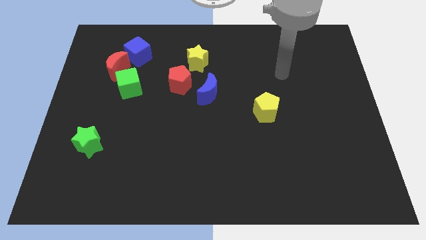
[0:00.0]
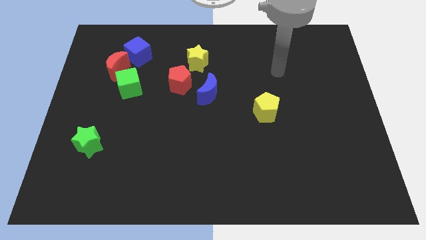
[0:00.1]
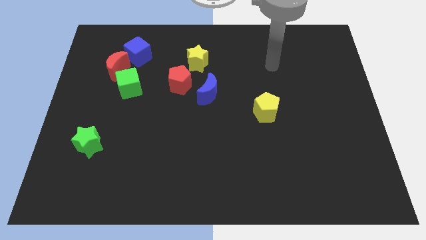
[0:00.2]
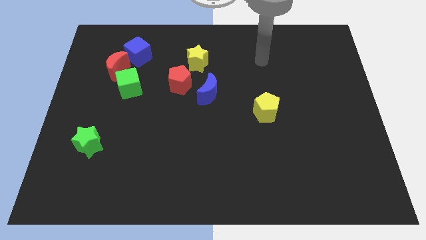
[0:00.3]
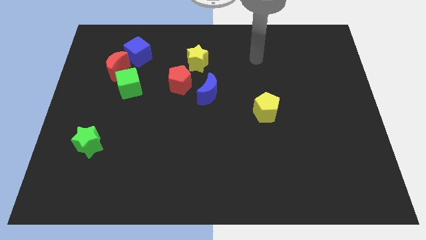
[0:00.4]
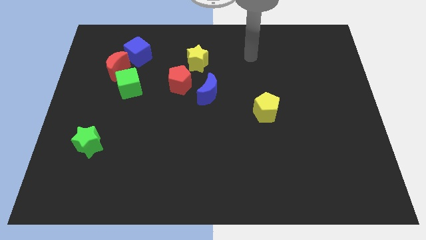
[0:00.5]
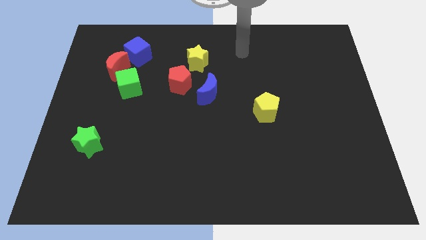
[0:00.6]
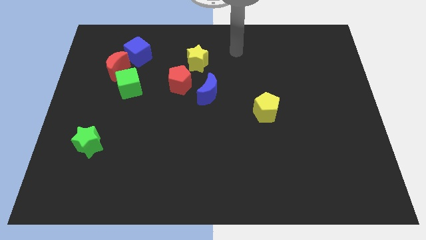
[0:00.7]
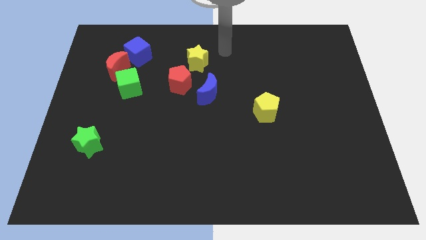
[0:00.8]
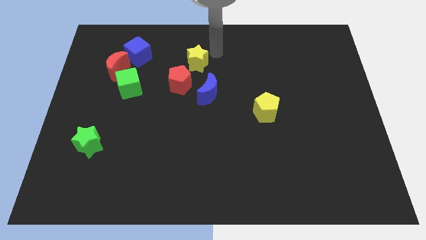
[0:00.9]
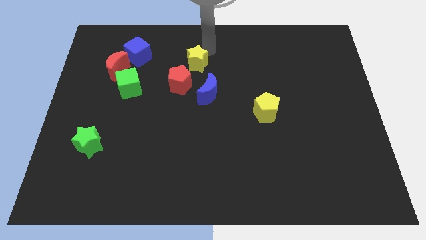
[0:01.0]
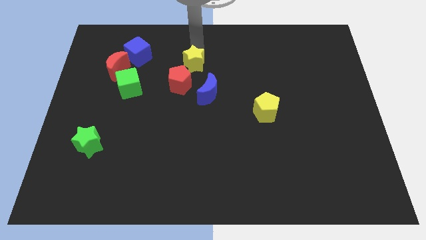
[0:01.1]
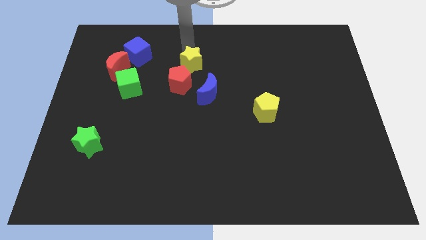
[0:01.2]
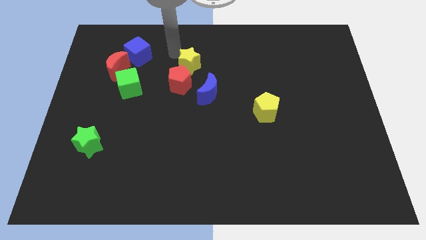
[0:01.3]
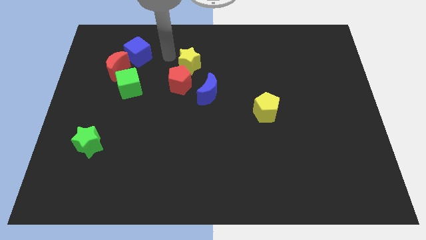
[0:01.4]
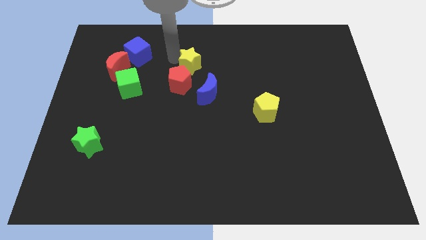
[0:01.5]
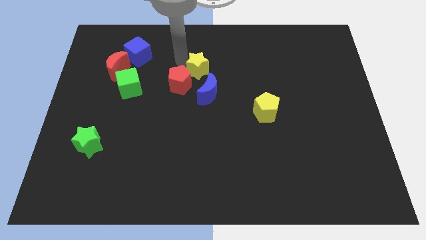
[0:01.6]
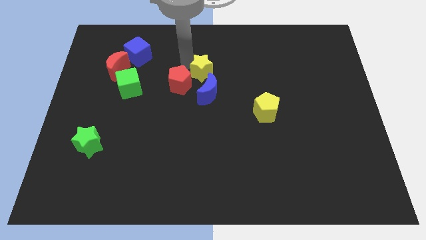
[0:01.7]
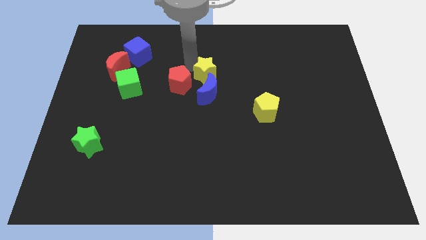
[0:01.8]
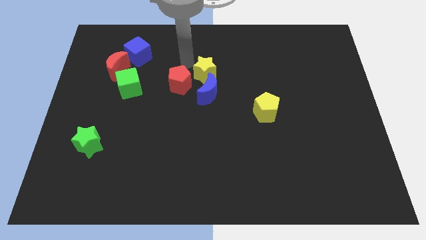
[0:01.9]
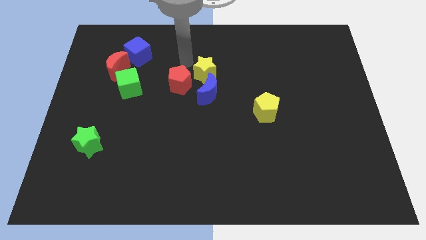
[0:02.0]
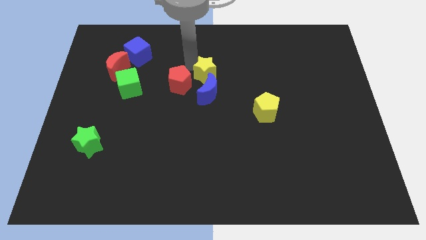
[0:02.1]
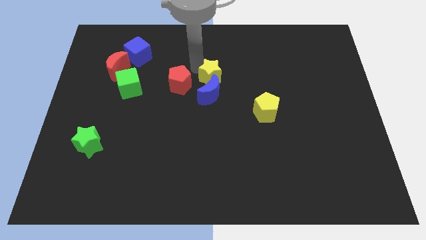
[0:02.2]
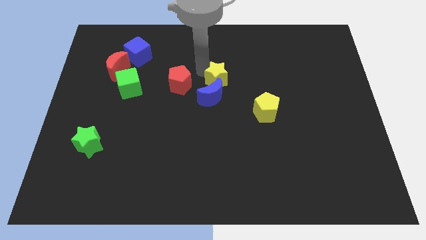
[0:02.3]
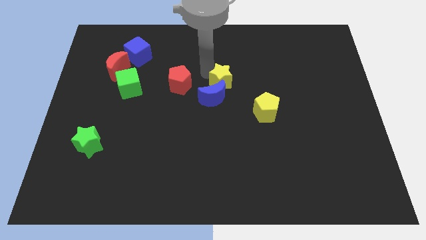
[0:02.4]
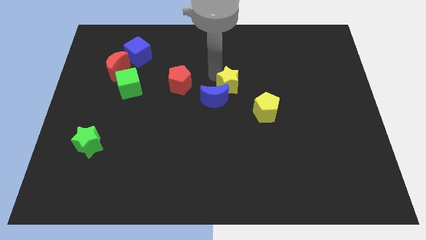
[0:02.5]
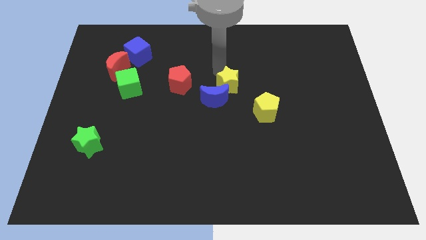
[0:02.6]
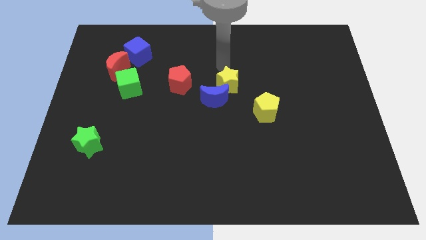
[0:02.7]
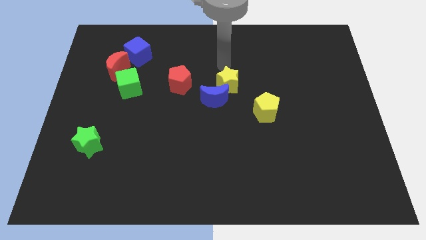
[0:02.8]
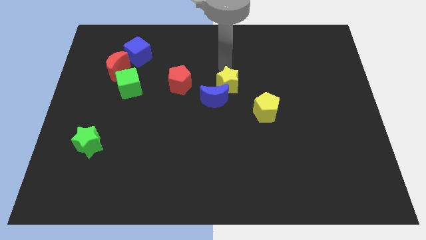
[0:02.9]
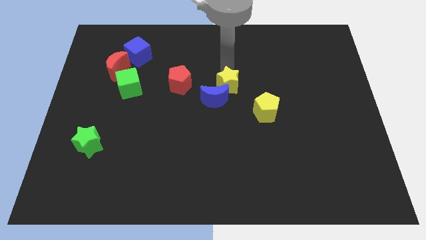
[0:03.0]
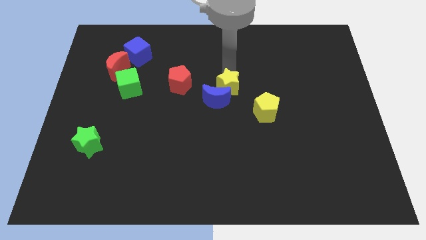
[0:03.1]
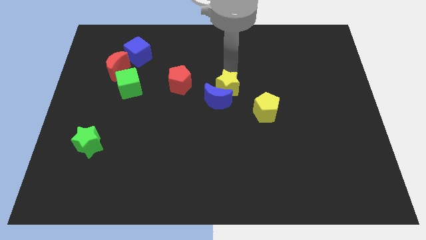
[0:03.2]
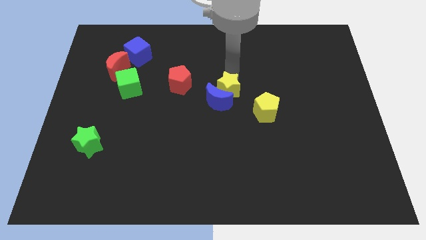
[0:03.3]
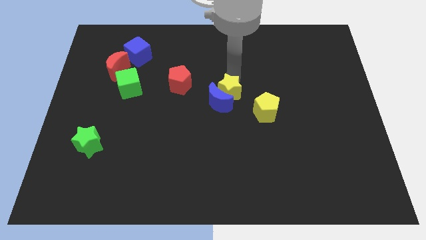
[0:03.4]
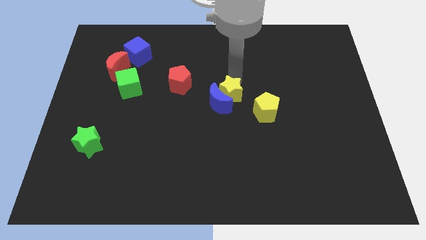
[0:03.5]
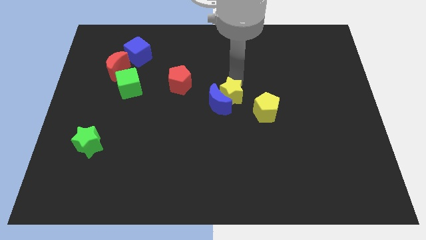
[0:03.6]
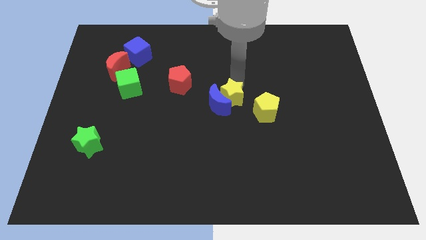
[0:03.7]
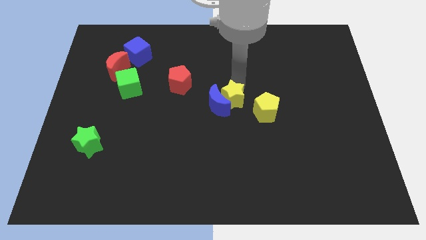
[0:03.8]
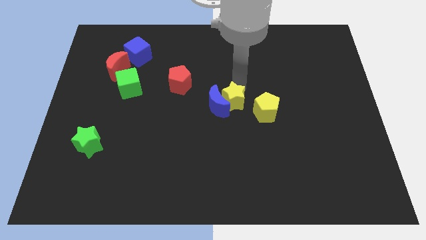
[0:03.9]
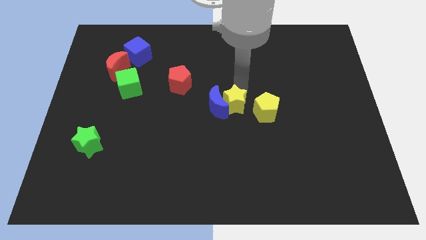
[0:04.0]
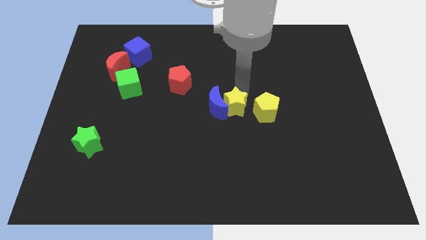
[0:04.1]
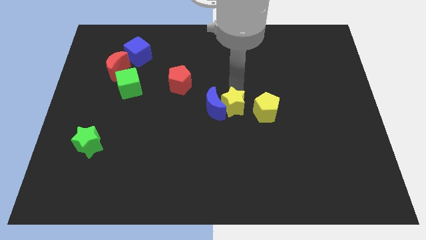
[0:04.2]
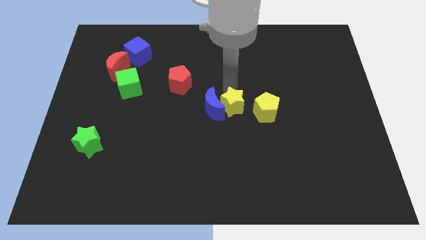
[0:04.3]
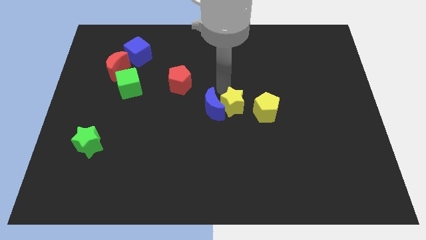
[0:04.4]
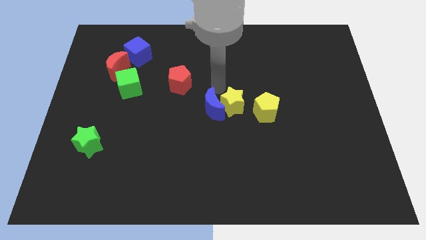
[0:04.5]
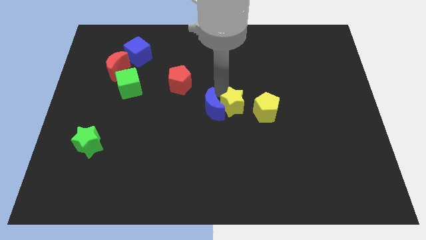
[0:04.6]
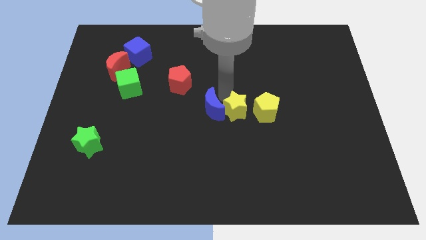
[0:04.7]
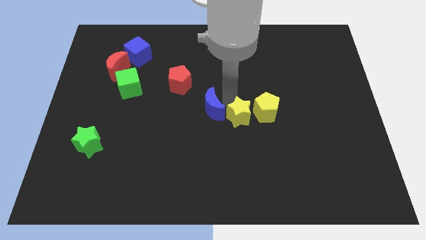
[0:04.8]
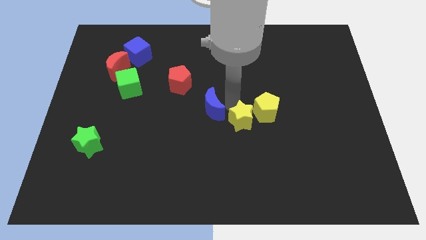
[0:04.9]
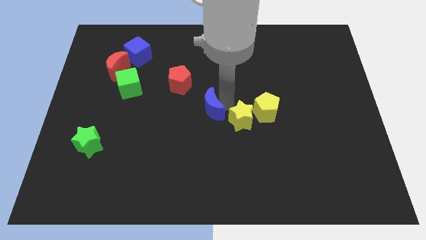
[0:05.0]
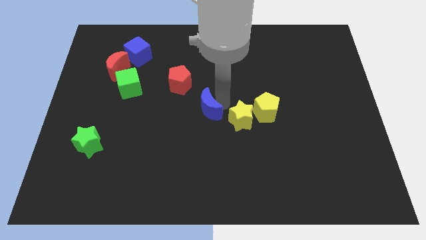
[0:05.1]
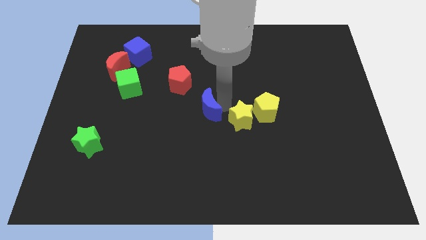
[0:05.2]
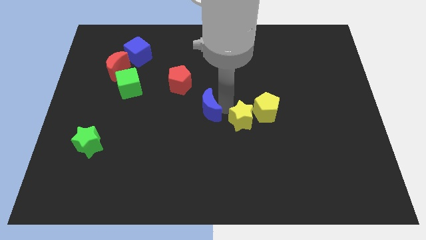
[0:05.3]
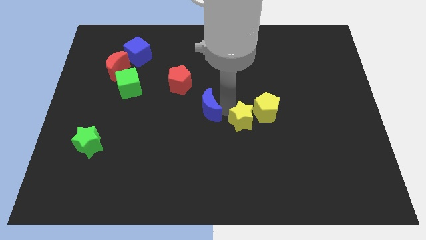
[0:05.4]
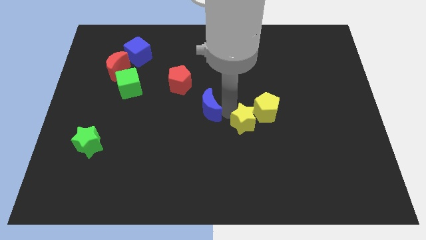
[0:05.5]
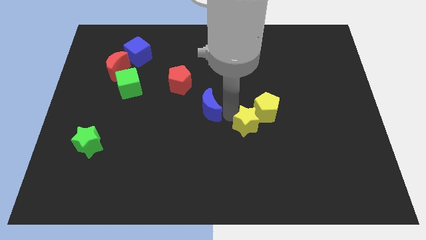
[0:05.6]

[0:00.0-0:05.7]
put the yellow star to the bottom side of the yellow pentagon
